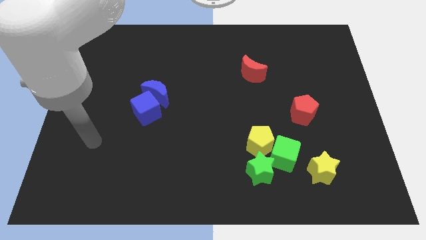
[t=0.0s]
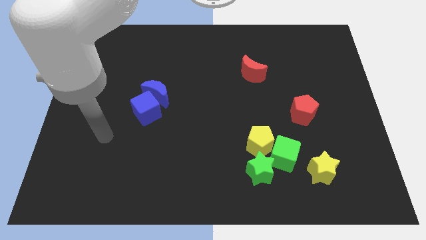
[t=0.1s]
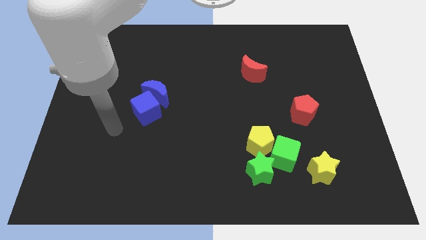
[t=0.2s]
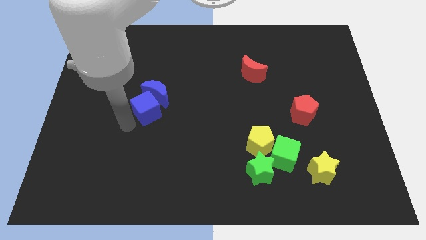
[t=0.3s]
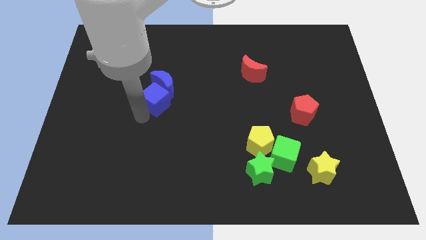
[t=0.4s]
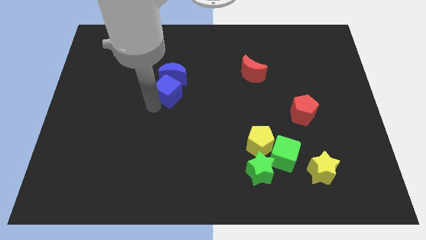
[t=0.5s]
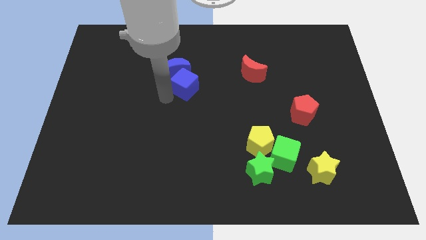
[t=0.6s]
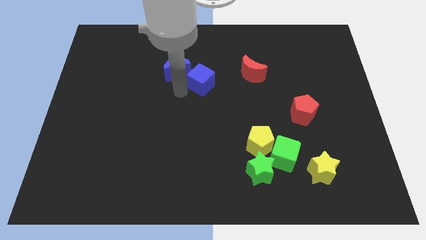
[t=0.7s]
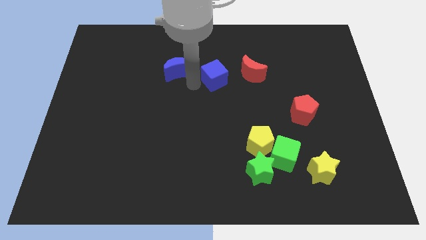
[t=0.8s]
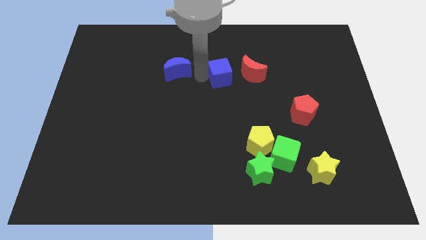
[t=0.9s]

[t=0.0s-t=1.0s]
move the blue moon away from the blue cube

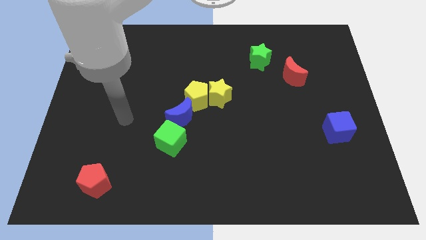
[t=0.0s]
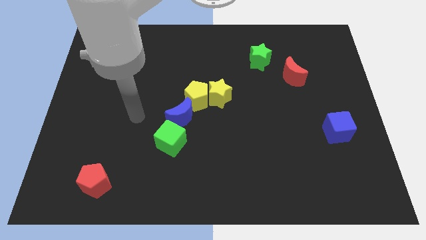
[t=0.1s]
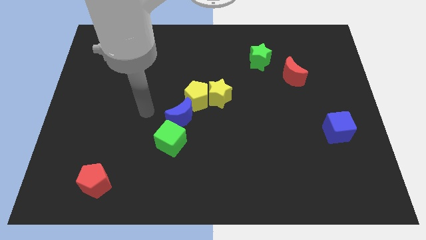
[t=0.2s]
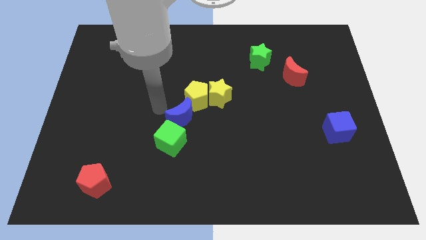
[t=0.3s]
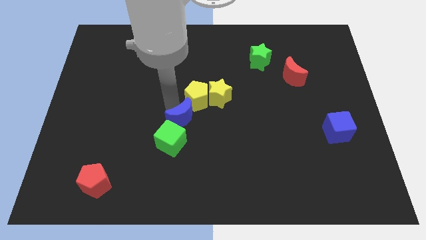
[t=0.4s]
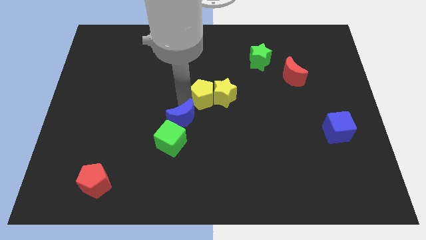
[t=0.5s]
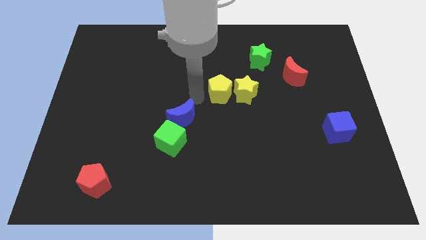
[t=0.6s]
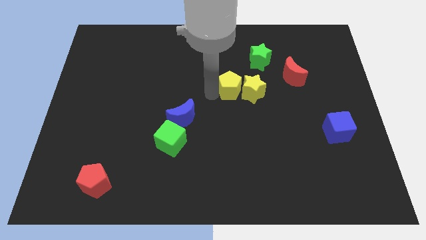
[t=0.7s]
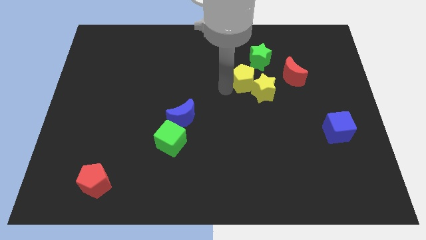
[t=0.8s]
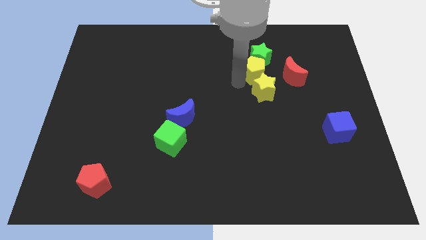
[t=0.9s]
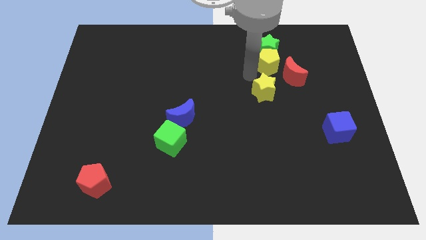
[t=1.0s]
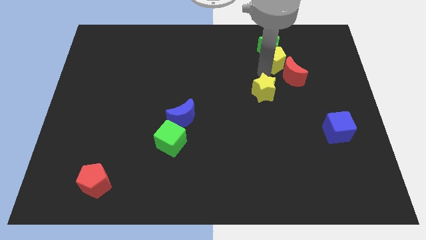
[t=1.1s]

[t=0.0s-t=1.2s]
move the yellow star away from the yellow pentagon

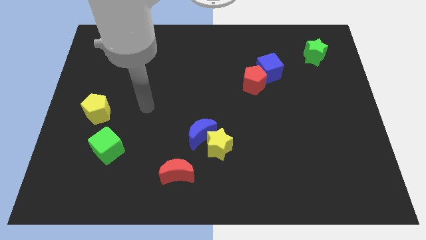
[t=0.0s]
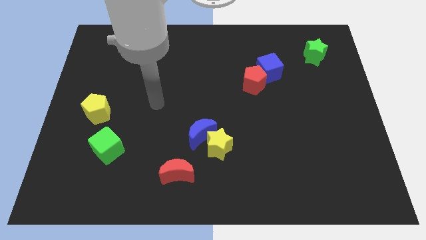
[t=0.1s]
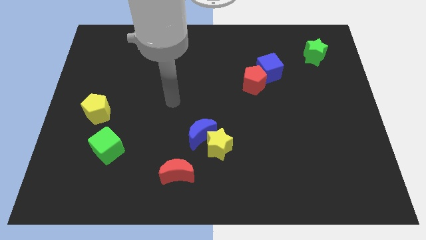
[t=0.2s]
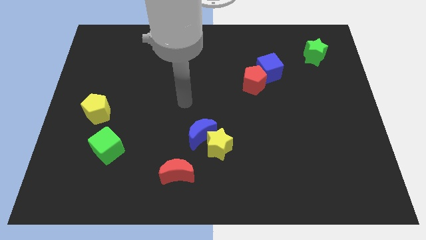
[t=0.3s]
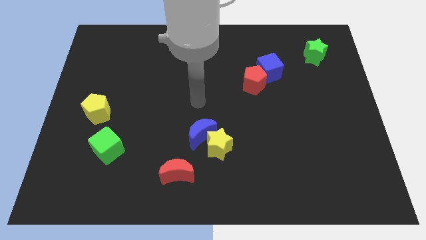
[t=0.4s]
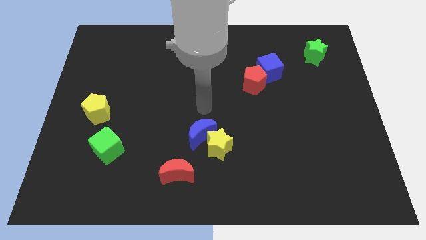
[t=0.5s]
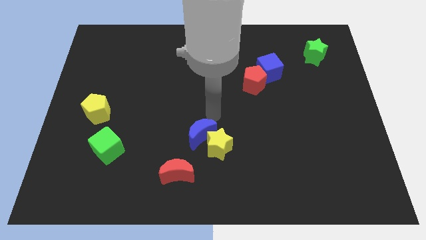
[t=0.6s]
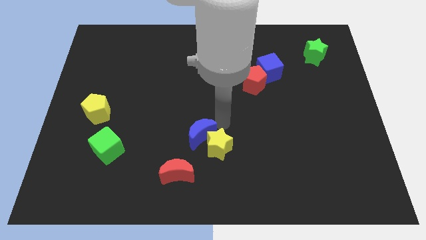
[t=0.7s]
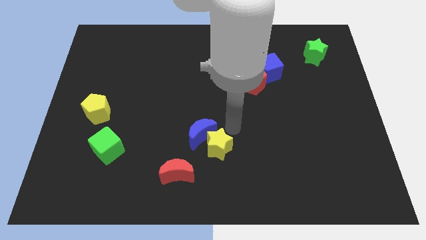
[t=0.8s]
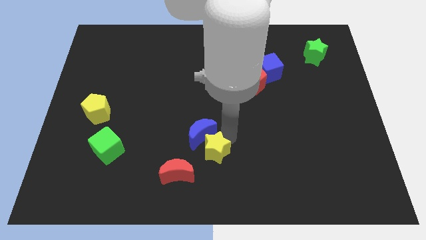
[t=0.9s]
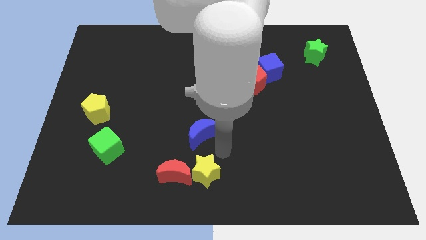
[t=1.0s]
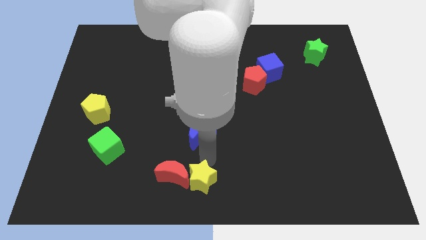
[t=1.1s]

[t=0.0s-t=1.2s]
separate the blue moon from the yellow star

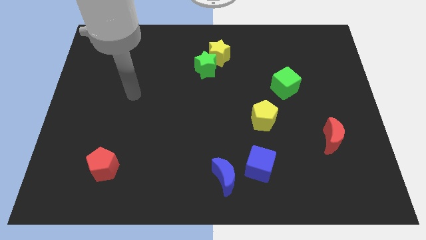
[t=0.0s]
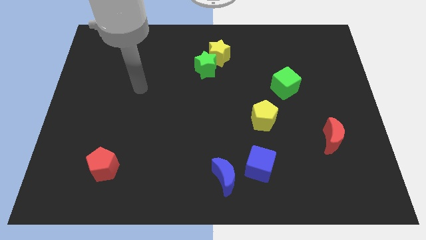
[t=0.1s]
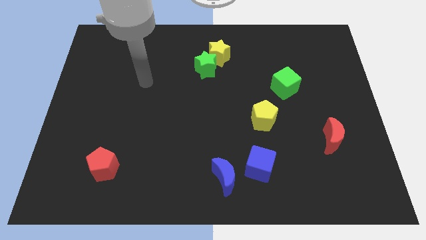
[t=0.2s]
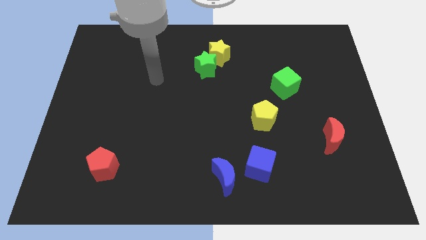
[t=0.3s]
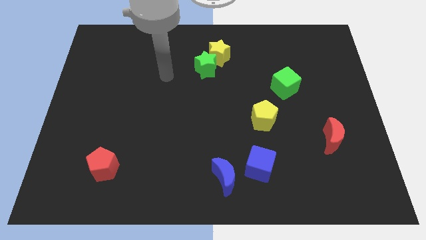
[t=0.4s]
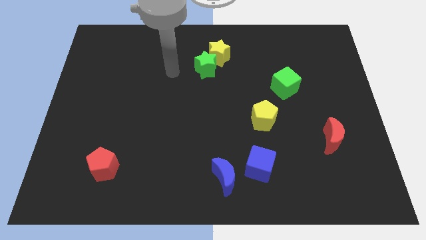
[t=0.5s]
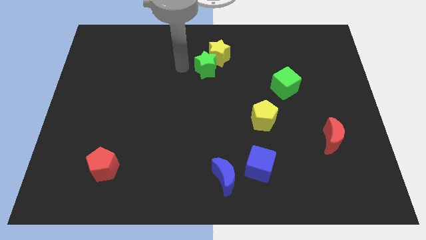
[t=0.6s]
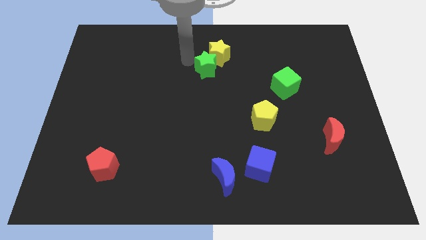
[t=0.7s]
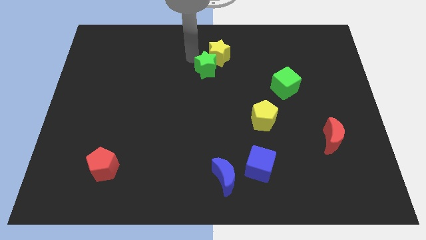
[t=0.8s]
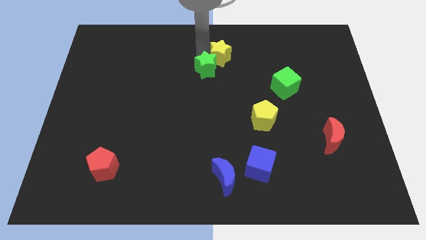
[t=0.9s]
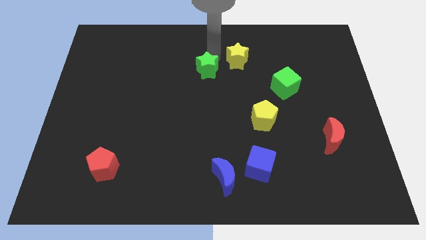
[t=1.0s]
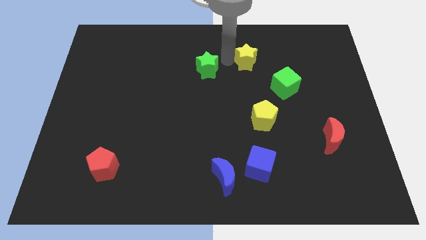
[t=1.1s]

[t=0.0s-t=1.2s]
pull the green star apart from the yellow star

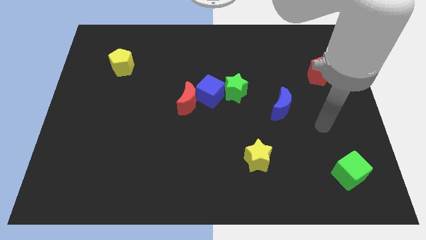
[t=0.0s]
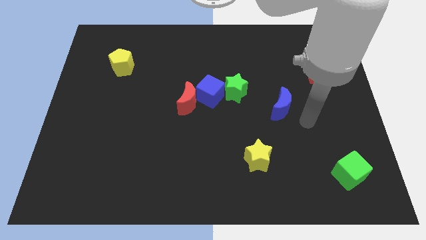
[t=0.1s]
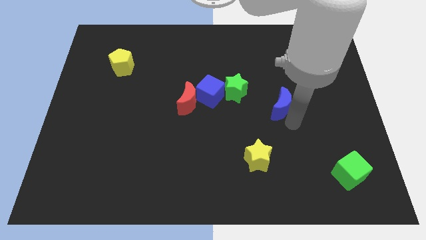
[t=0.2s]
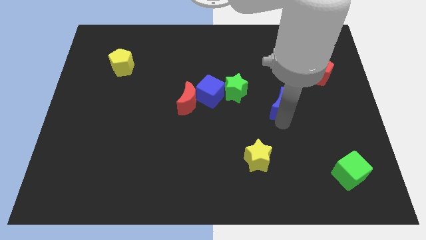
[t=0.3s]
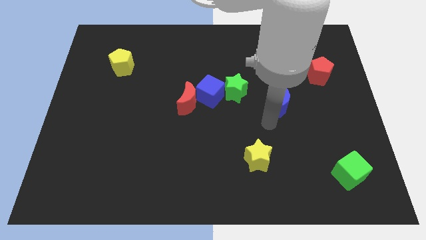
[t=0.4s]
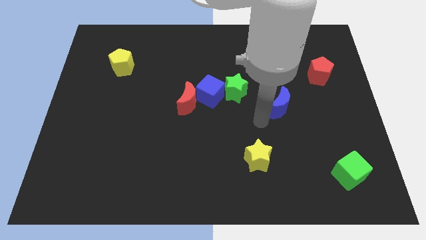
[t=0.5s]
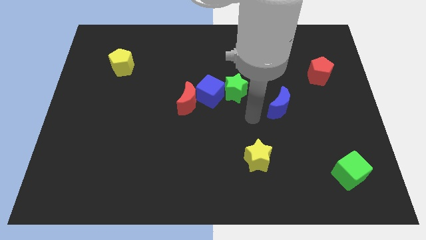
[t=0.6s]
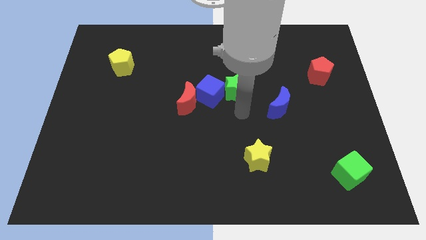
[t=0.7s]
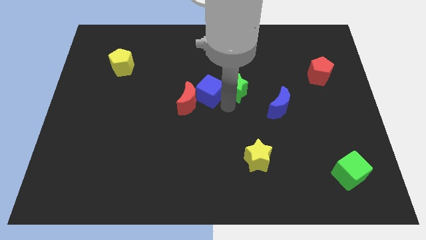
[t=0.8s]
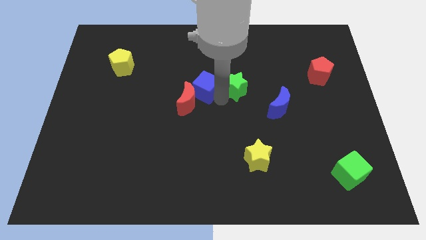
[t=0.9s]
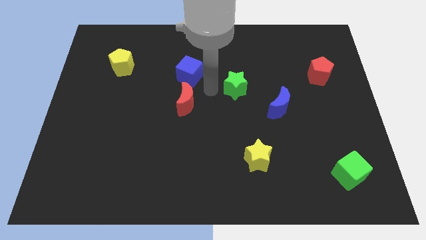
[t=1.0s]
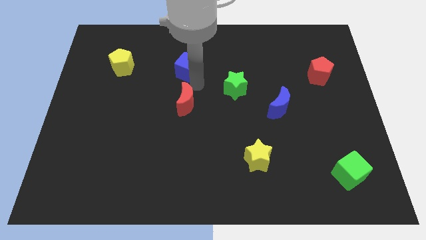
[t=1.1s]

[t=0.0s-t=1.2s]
pull the red moon apart from the blue cube

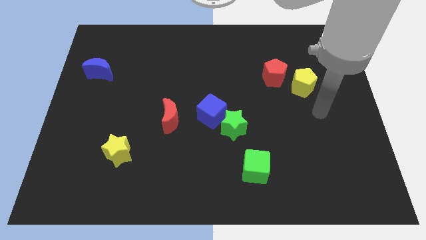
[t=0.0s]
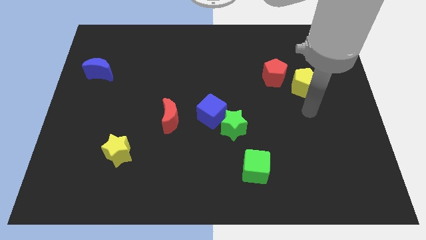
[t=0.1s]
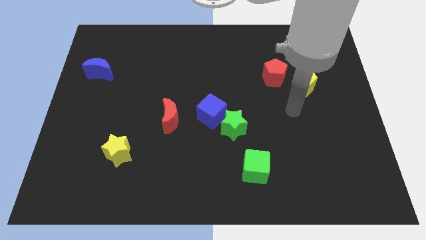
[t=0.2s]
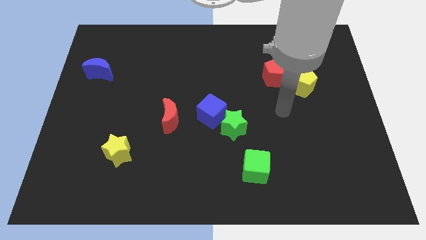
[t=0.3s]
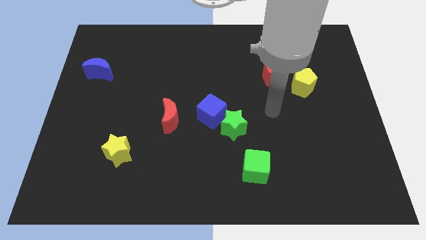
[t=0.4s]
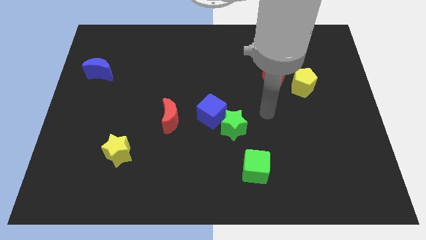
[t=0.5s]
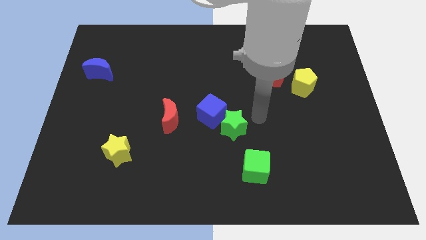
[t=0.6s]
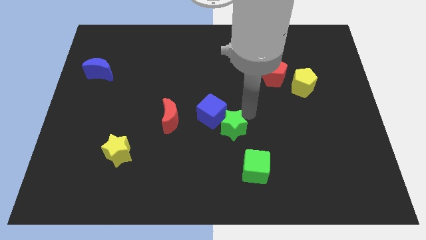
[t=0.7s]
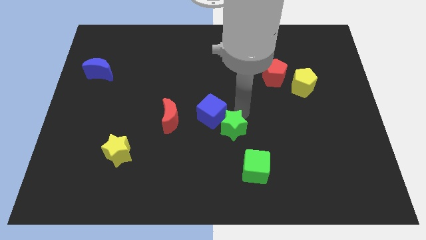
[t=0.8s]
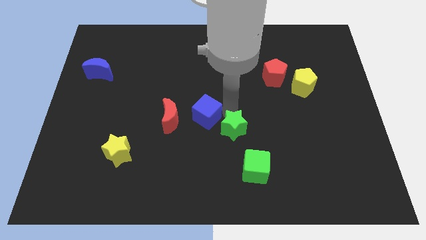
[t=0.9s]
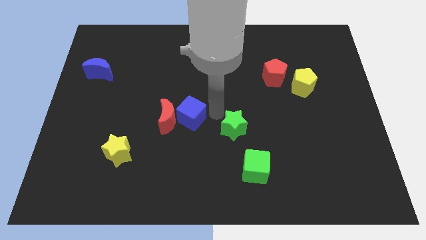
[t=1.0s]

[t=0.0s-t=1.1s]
move the green star away from the blue cube

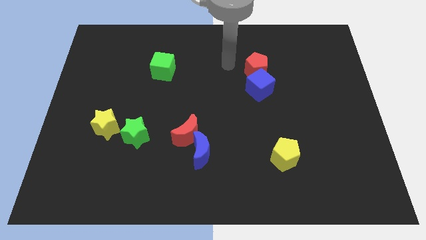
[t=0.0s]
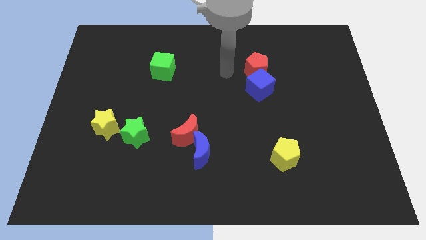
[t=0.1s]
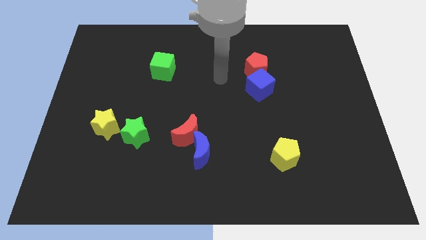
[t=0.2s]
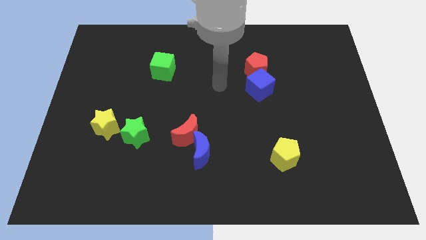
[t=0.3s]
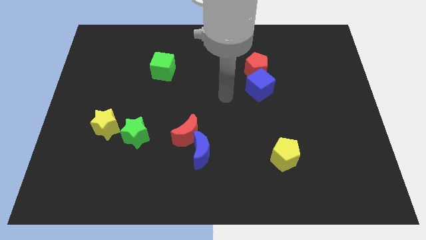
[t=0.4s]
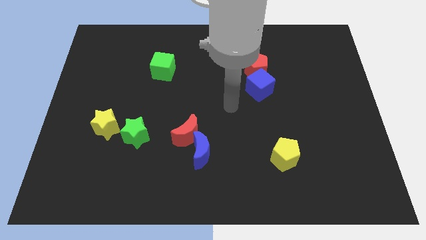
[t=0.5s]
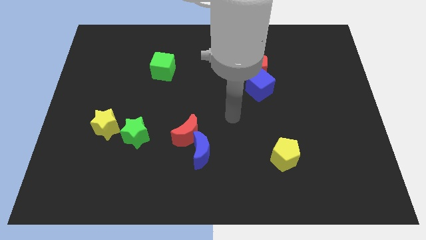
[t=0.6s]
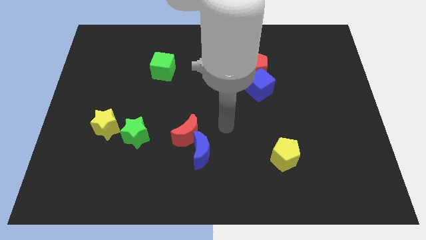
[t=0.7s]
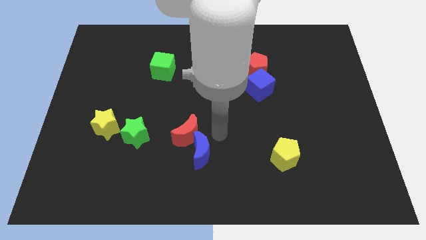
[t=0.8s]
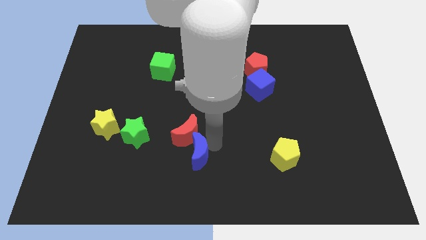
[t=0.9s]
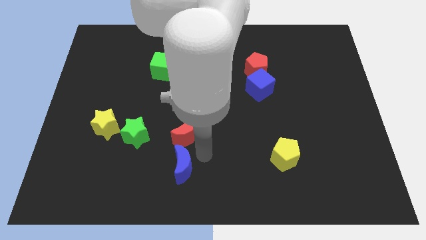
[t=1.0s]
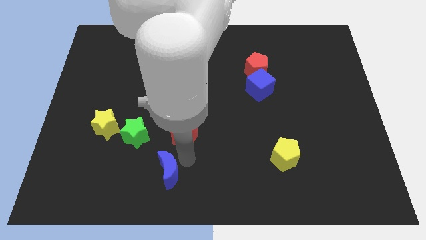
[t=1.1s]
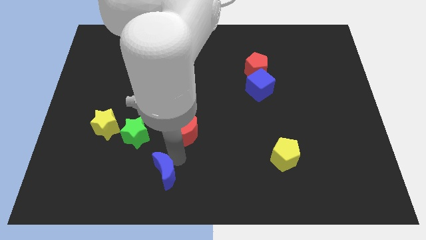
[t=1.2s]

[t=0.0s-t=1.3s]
move the red moon away from the blue moon

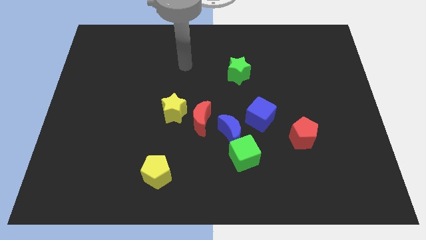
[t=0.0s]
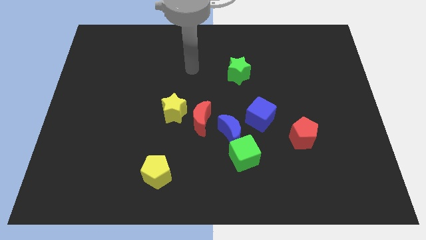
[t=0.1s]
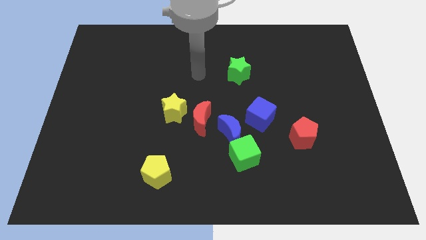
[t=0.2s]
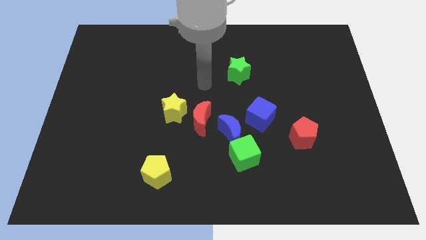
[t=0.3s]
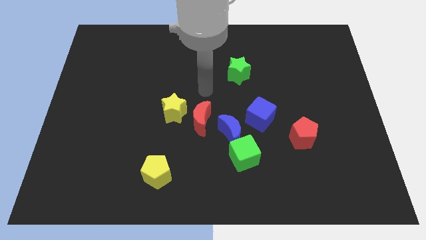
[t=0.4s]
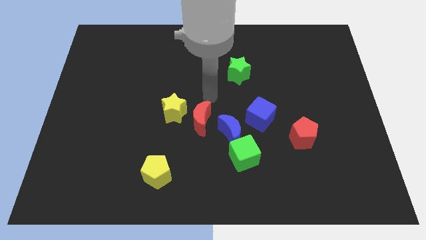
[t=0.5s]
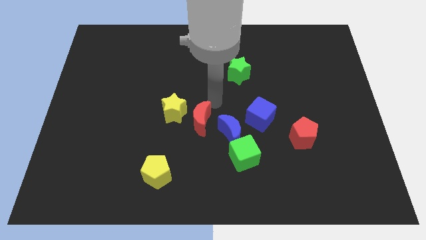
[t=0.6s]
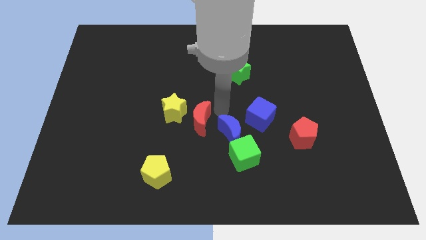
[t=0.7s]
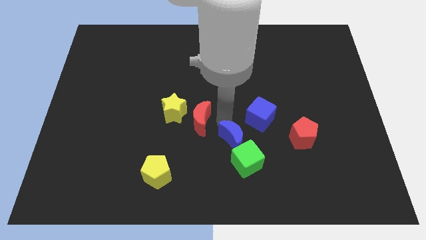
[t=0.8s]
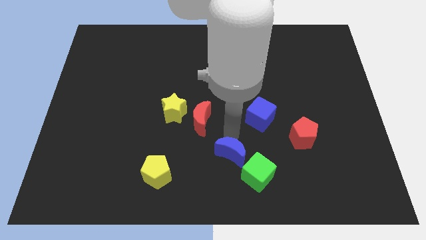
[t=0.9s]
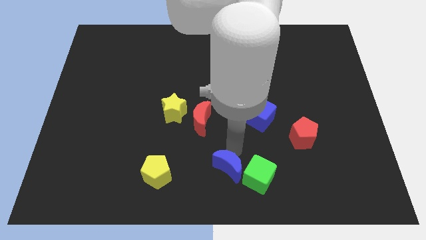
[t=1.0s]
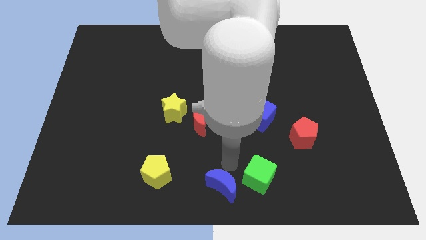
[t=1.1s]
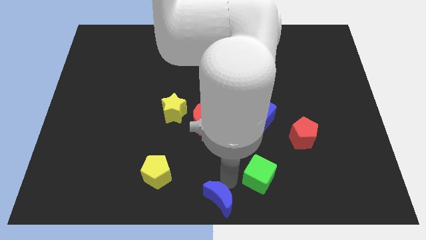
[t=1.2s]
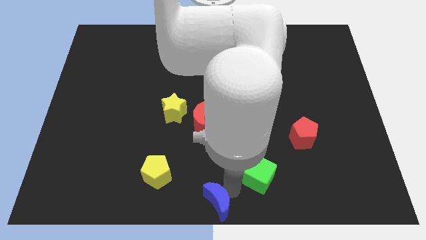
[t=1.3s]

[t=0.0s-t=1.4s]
pull the green cube apart from the blue moon
